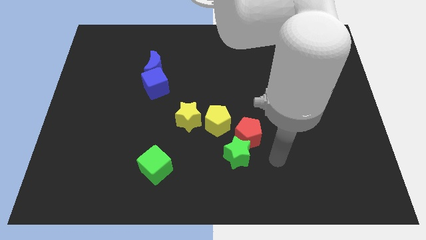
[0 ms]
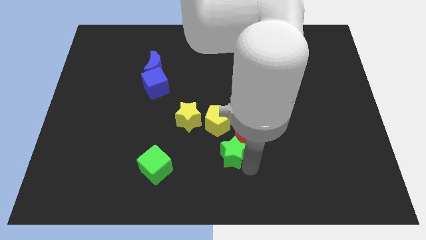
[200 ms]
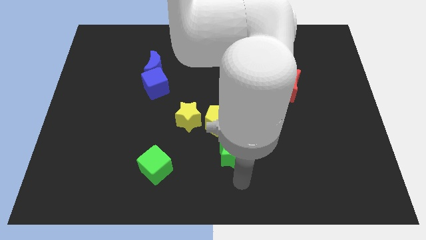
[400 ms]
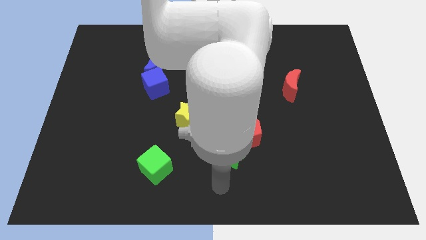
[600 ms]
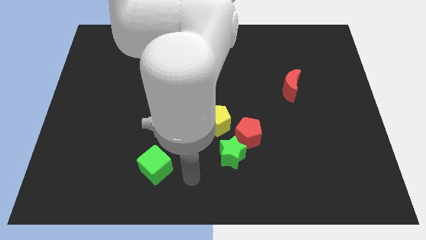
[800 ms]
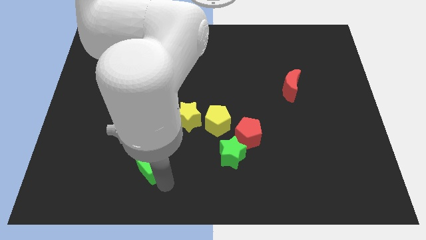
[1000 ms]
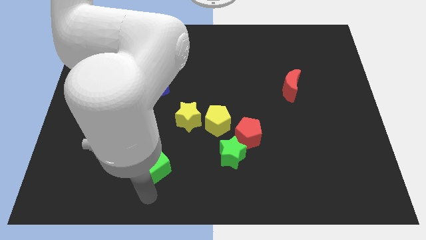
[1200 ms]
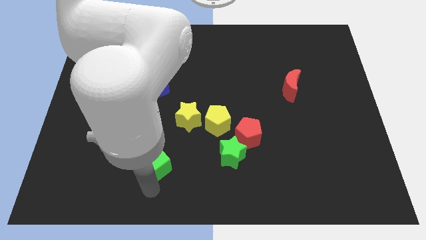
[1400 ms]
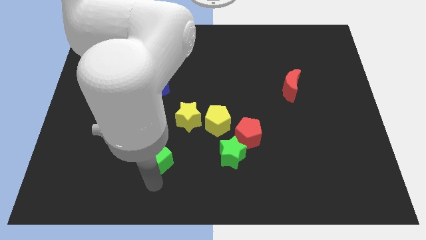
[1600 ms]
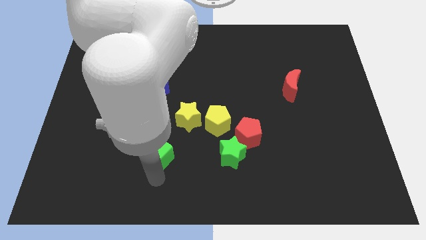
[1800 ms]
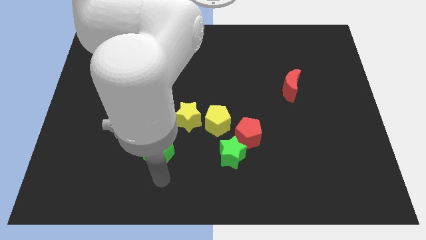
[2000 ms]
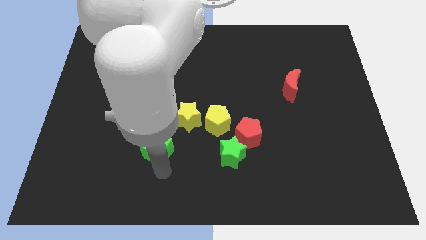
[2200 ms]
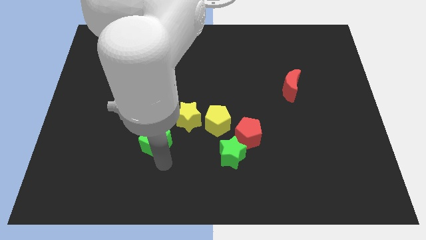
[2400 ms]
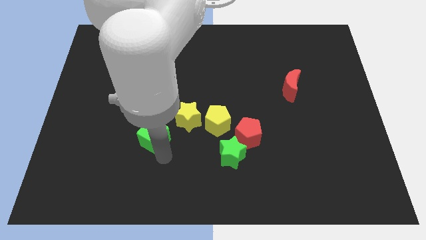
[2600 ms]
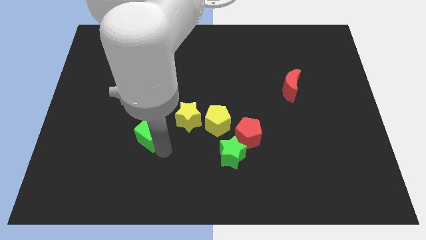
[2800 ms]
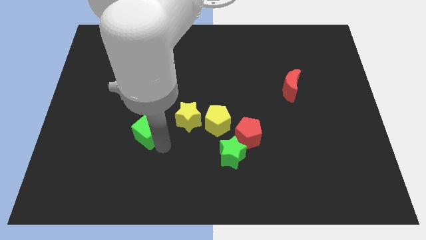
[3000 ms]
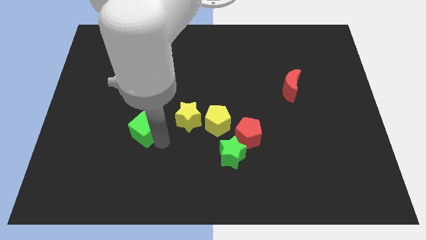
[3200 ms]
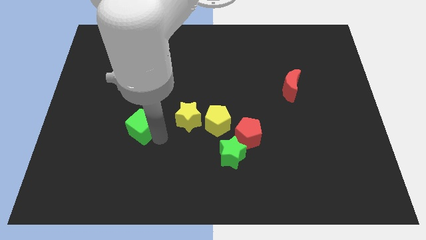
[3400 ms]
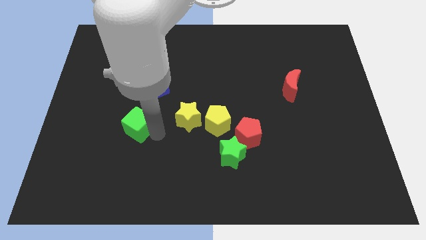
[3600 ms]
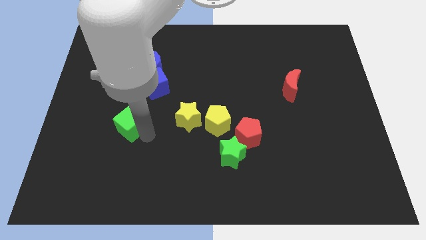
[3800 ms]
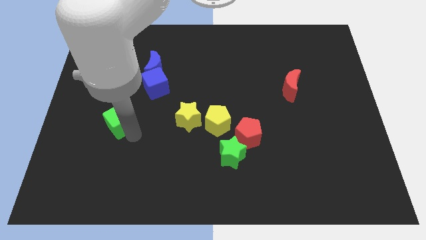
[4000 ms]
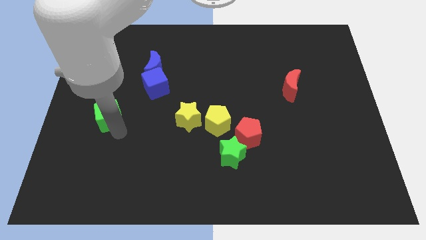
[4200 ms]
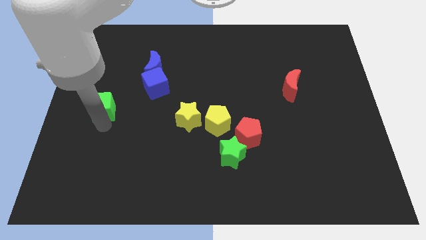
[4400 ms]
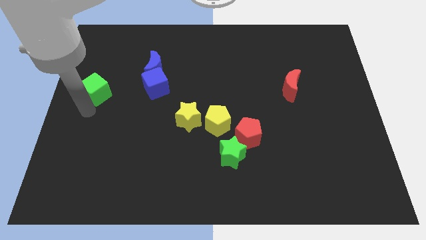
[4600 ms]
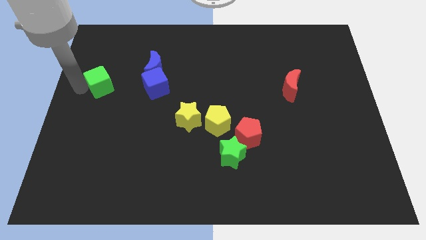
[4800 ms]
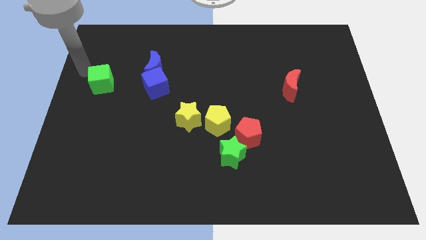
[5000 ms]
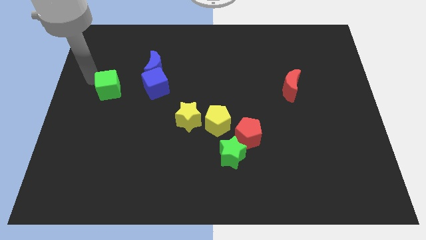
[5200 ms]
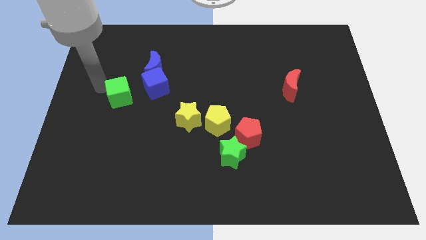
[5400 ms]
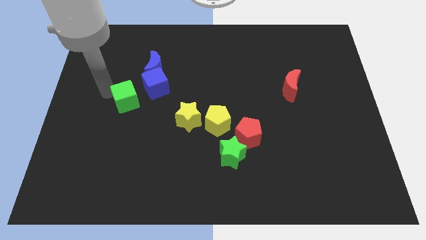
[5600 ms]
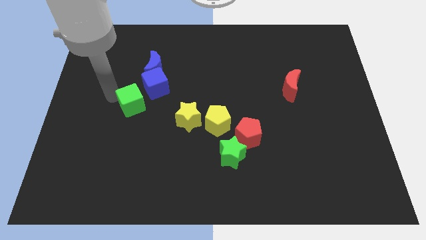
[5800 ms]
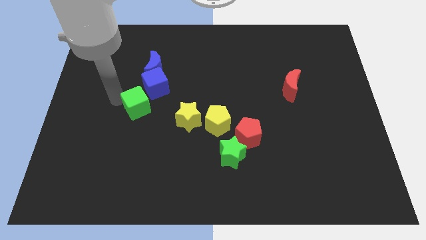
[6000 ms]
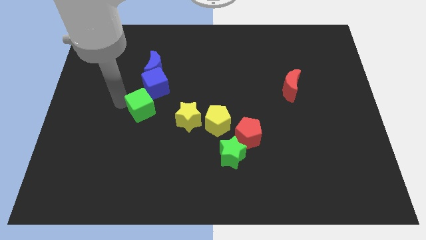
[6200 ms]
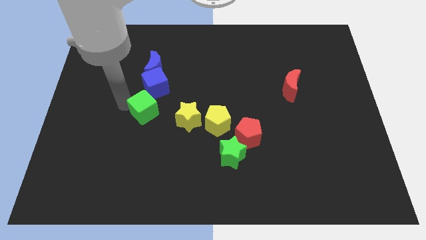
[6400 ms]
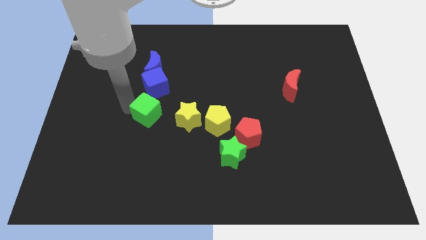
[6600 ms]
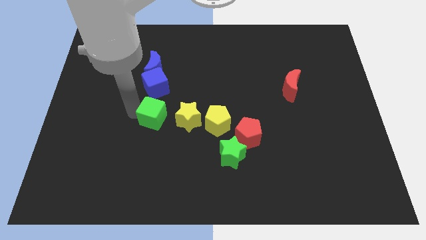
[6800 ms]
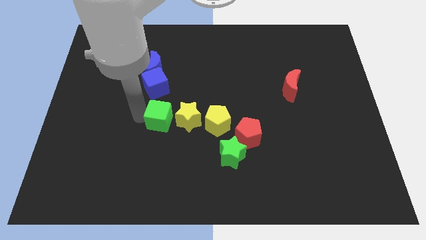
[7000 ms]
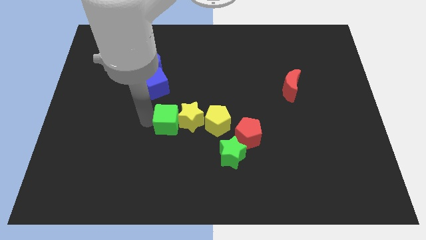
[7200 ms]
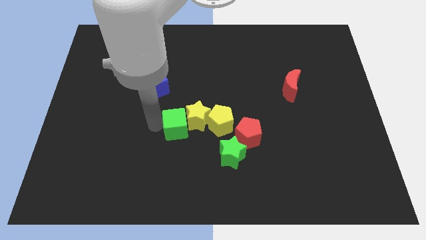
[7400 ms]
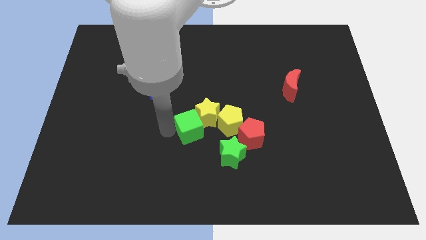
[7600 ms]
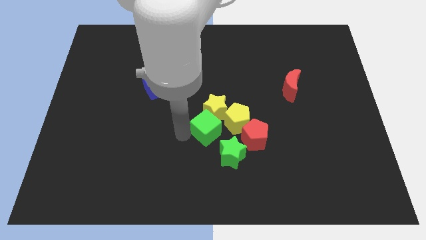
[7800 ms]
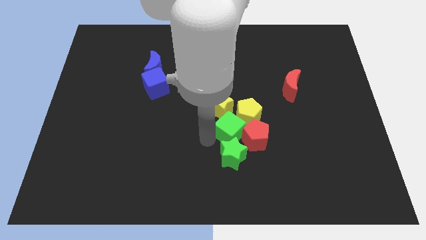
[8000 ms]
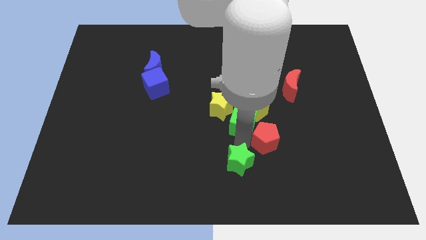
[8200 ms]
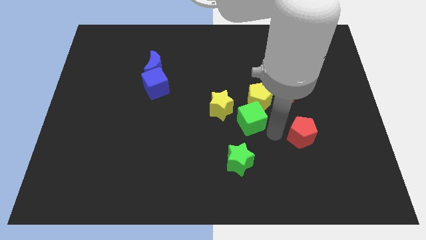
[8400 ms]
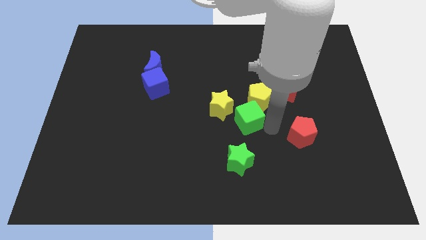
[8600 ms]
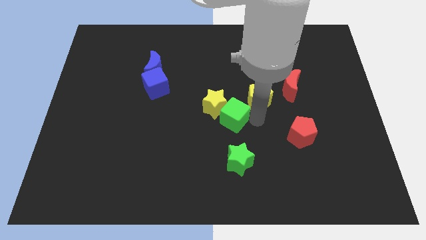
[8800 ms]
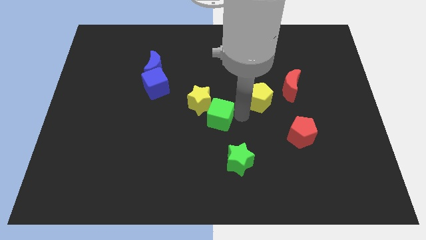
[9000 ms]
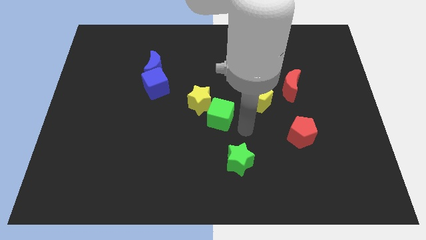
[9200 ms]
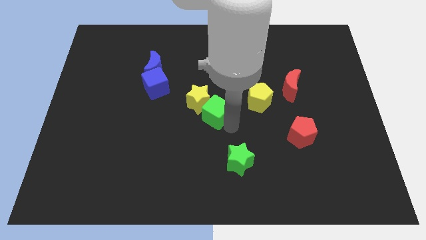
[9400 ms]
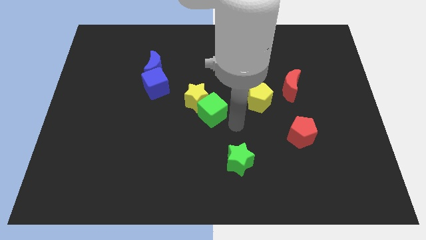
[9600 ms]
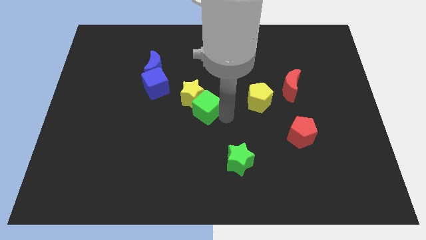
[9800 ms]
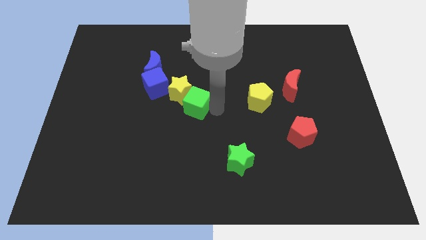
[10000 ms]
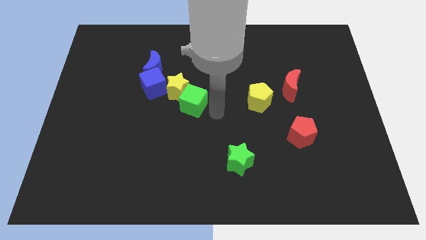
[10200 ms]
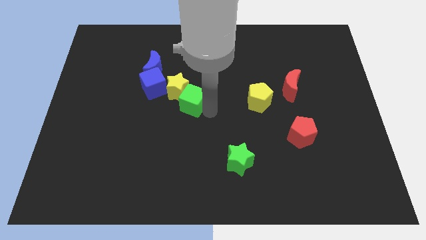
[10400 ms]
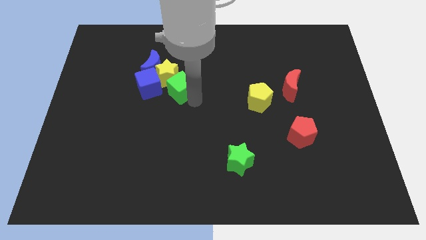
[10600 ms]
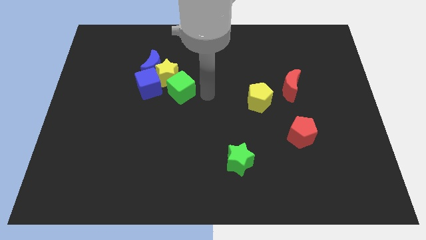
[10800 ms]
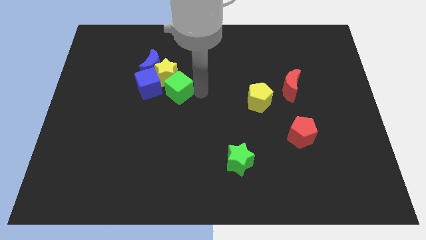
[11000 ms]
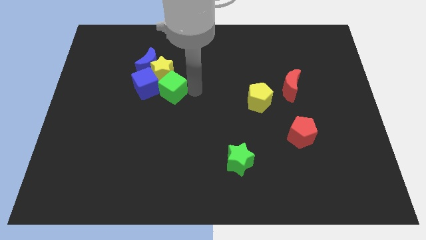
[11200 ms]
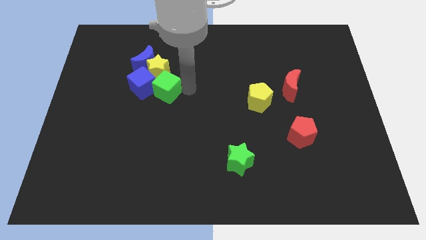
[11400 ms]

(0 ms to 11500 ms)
move the green cube next to the blue cube

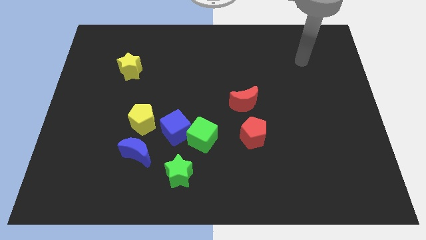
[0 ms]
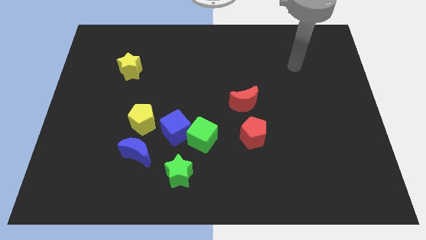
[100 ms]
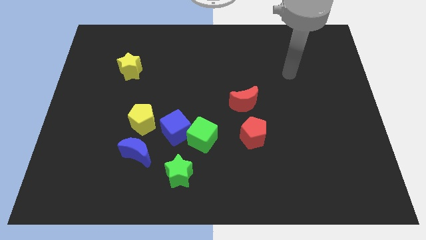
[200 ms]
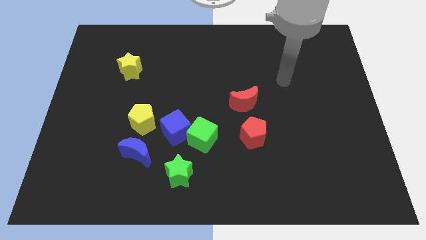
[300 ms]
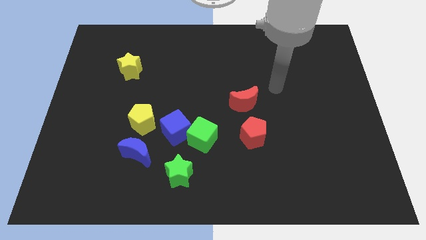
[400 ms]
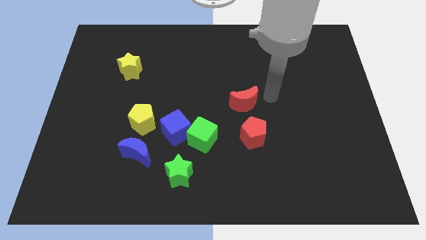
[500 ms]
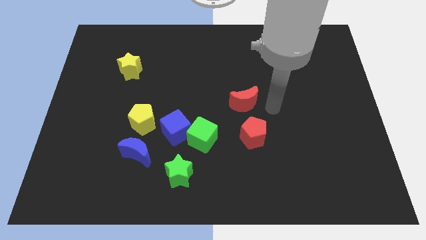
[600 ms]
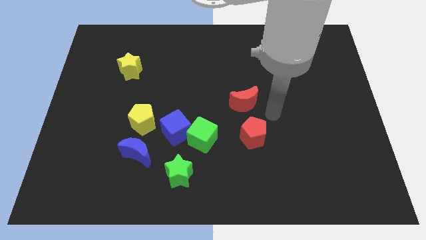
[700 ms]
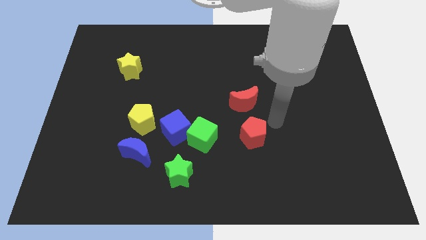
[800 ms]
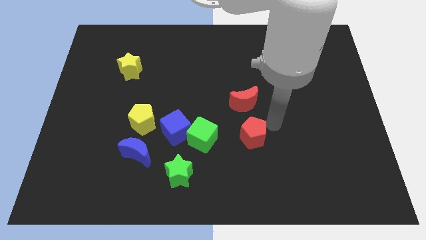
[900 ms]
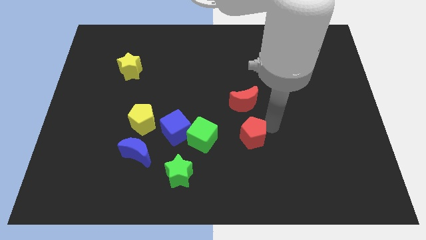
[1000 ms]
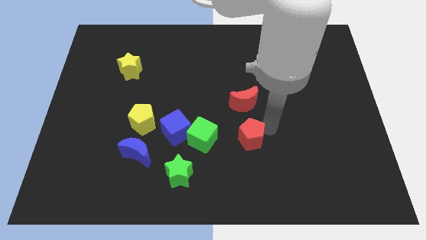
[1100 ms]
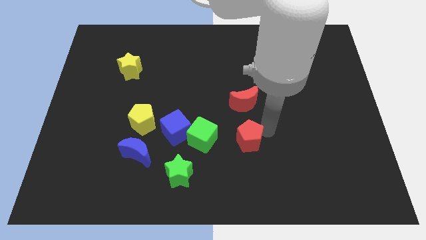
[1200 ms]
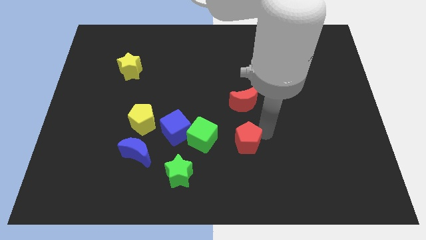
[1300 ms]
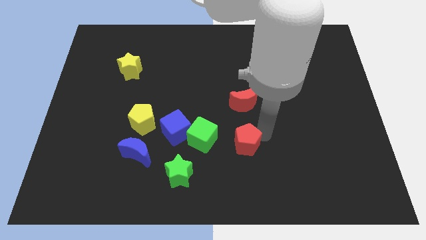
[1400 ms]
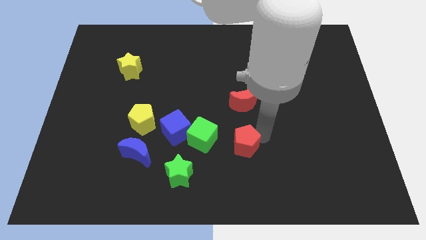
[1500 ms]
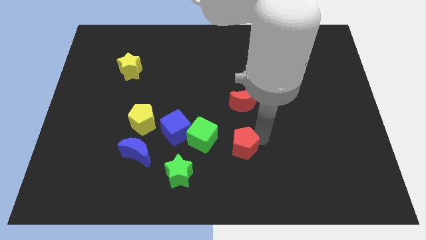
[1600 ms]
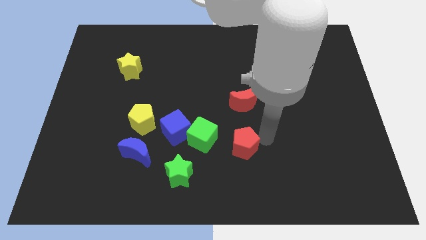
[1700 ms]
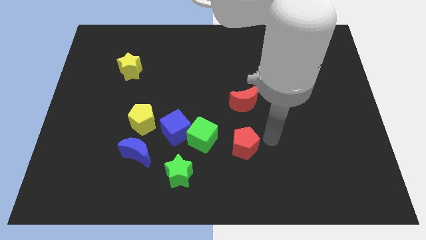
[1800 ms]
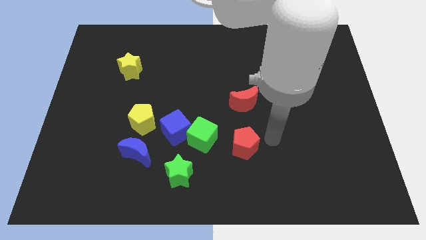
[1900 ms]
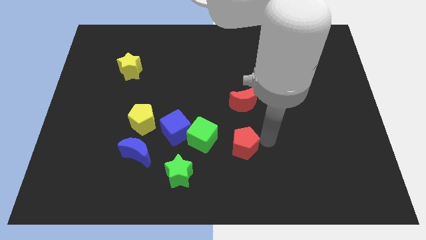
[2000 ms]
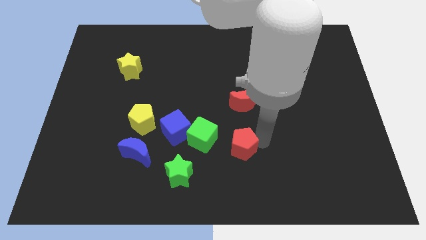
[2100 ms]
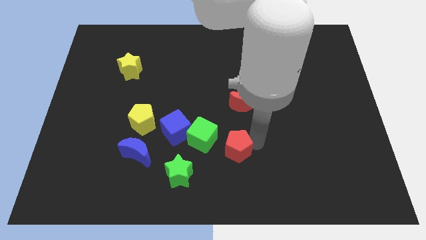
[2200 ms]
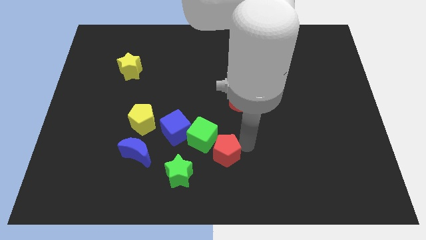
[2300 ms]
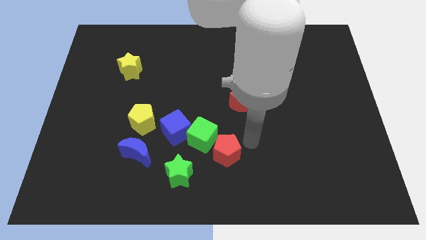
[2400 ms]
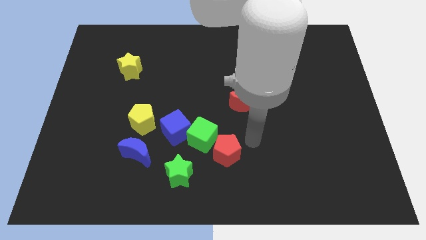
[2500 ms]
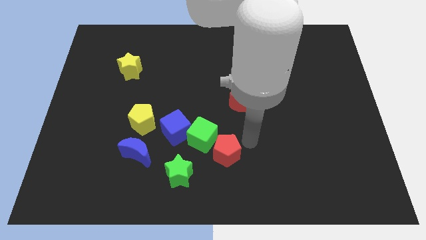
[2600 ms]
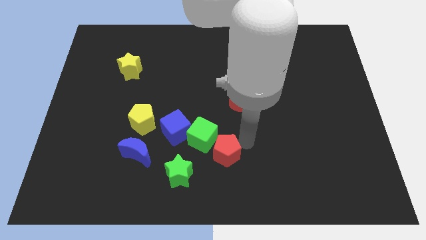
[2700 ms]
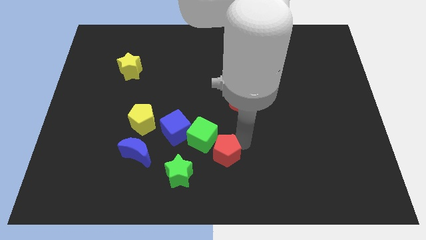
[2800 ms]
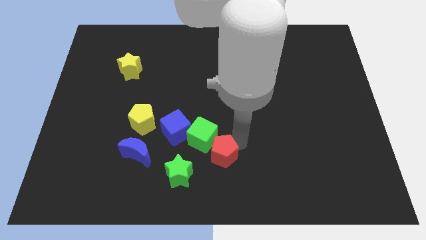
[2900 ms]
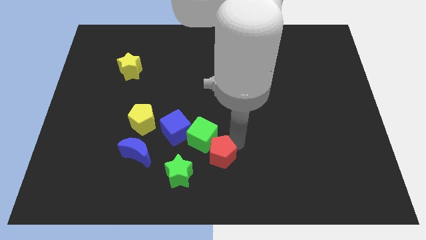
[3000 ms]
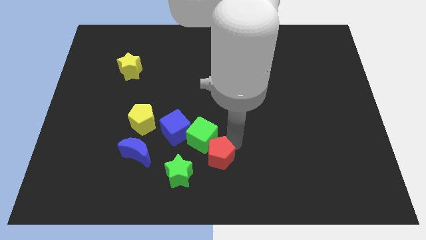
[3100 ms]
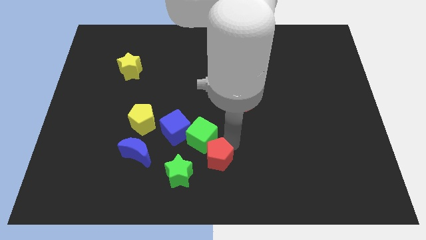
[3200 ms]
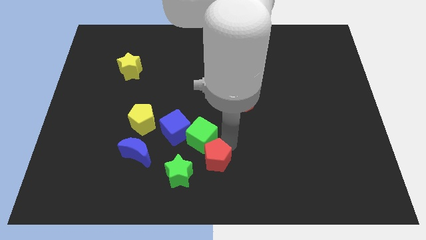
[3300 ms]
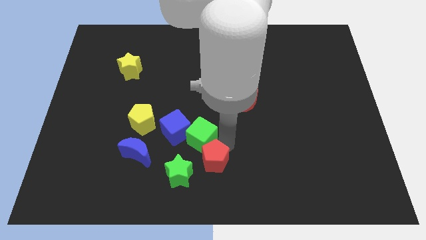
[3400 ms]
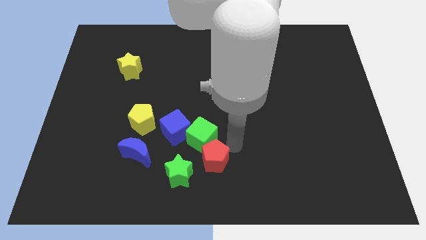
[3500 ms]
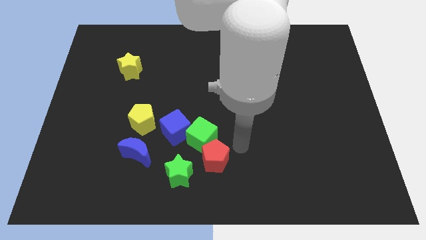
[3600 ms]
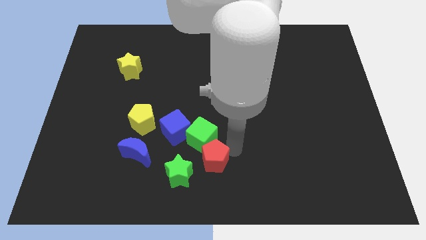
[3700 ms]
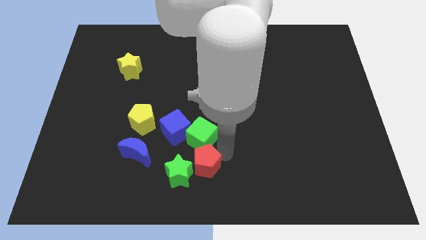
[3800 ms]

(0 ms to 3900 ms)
push the red pentagon to the green star
